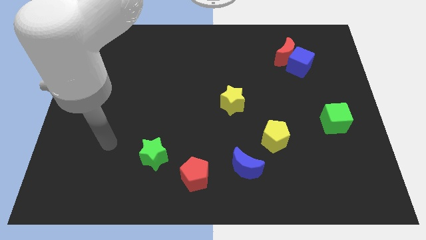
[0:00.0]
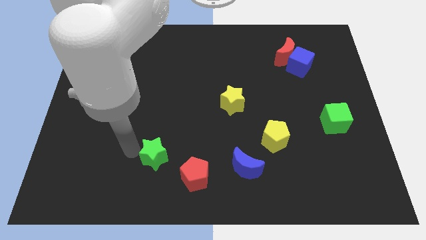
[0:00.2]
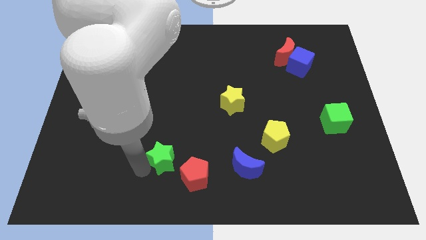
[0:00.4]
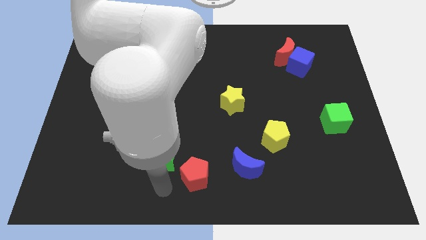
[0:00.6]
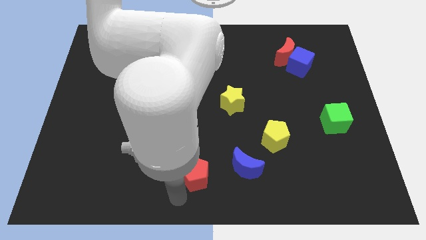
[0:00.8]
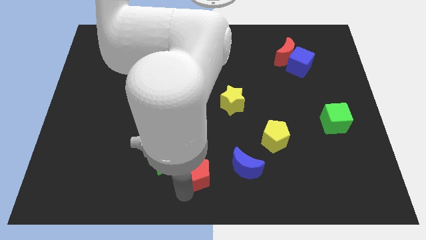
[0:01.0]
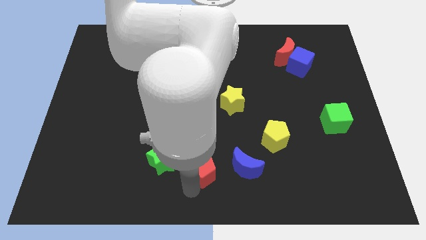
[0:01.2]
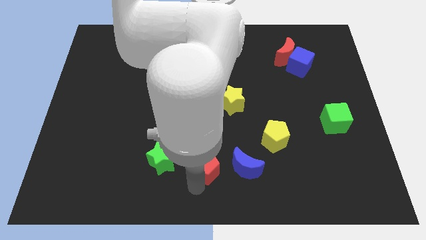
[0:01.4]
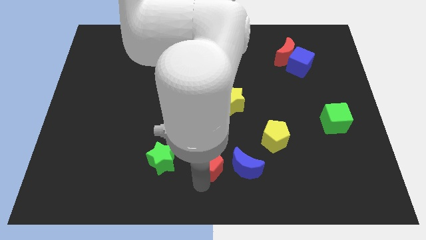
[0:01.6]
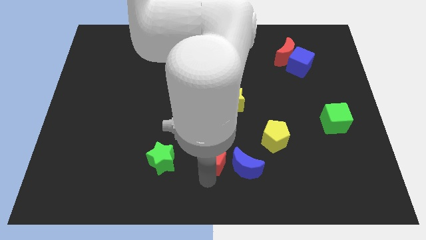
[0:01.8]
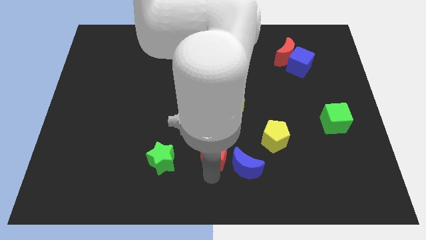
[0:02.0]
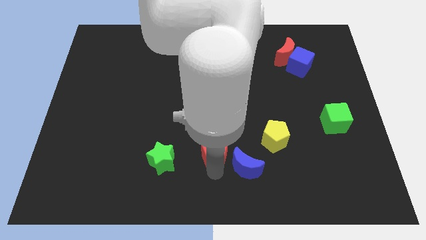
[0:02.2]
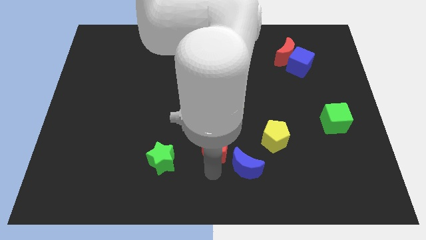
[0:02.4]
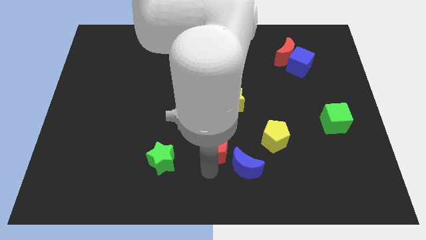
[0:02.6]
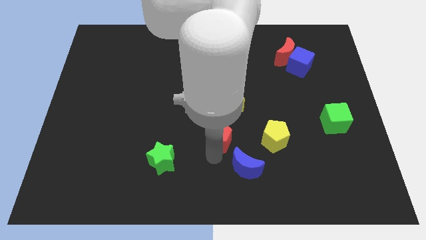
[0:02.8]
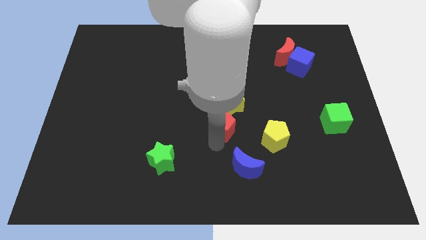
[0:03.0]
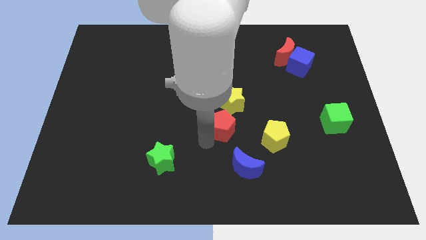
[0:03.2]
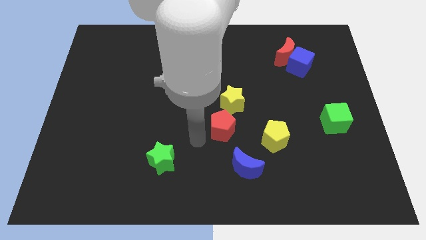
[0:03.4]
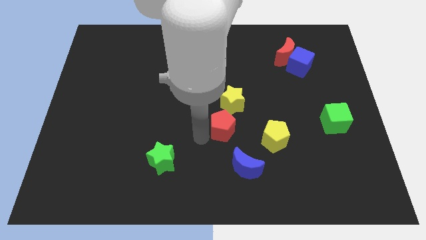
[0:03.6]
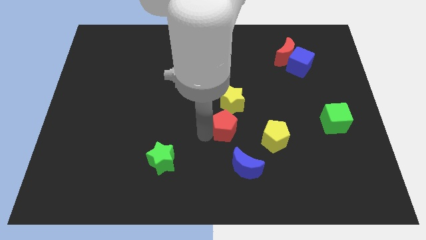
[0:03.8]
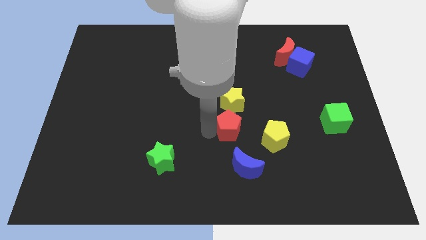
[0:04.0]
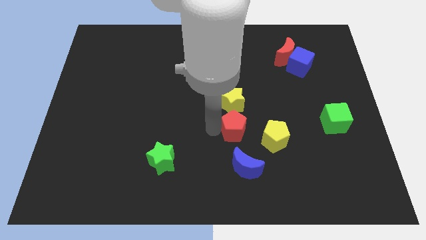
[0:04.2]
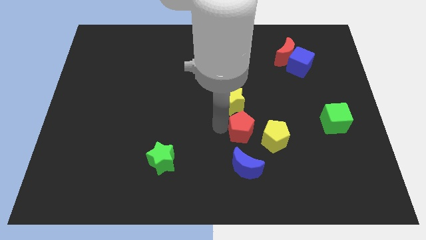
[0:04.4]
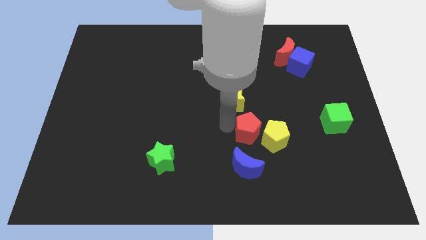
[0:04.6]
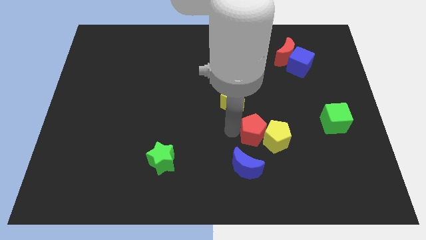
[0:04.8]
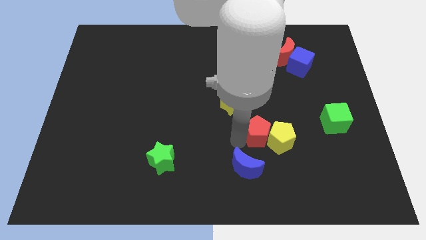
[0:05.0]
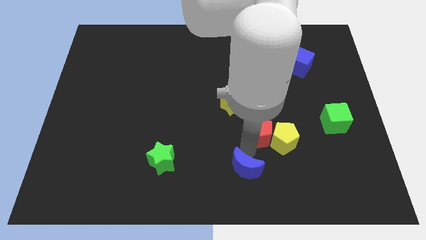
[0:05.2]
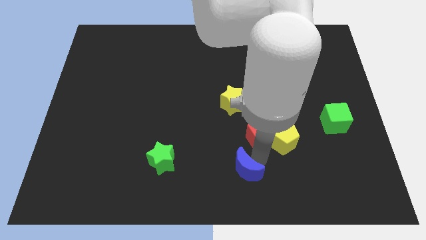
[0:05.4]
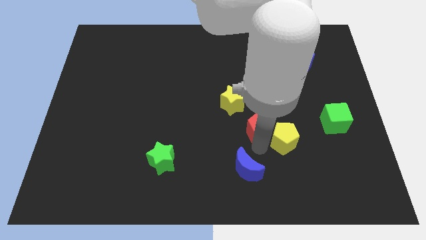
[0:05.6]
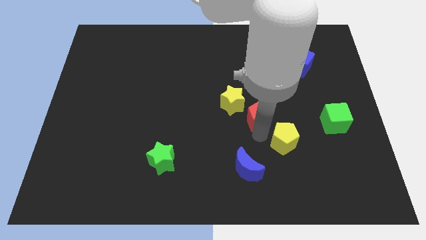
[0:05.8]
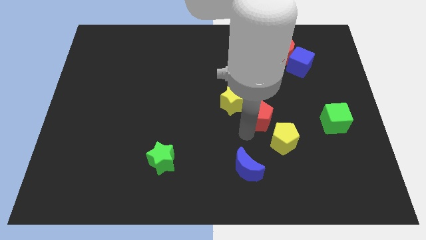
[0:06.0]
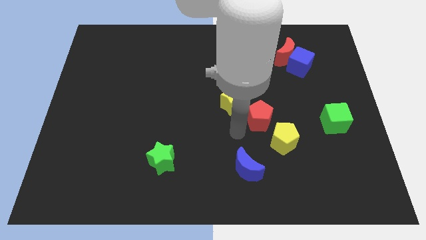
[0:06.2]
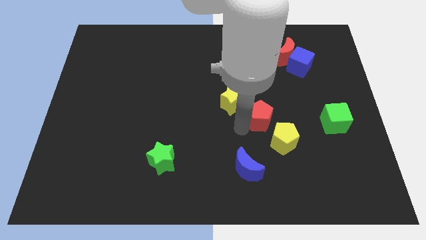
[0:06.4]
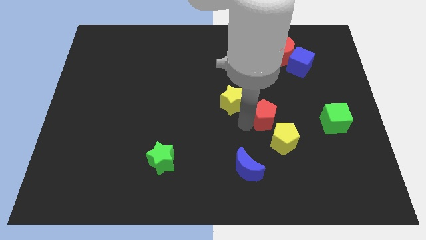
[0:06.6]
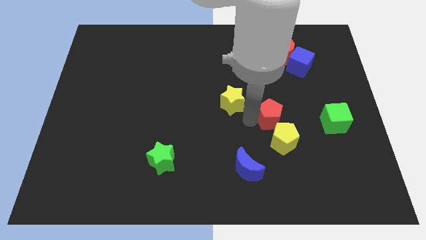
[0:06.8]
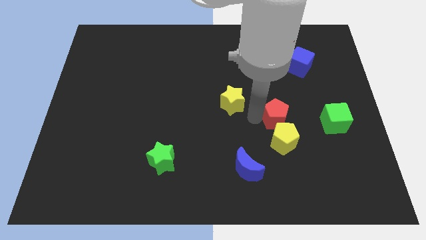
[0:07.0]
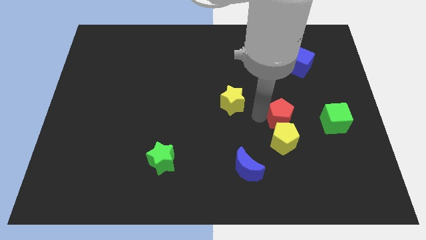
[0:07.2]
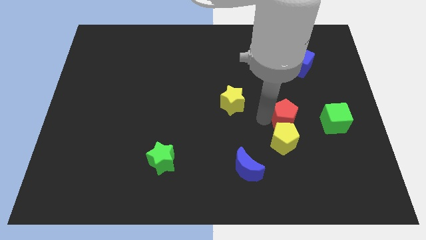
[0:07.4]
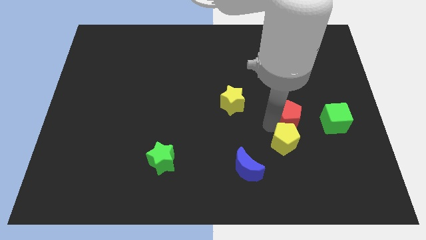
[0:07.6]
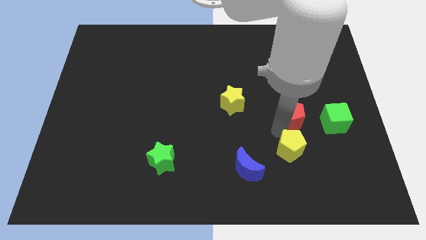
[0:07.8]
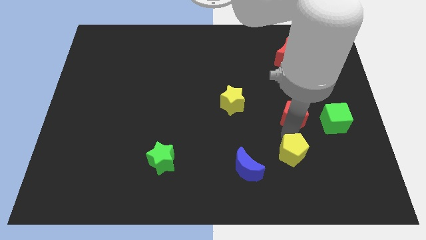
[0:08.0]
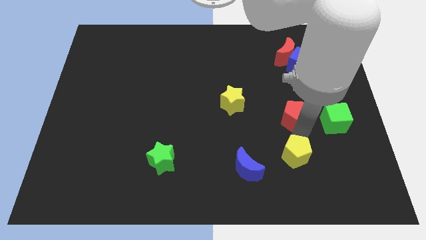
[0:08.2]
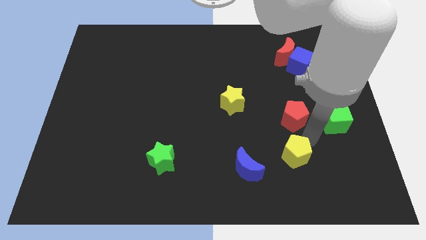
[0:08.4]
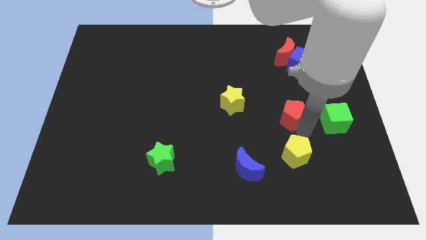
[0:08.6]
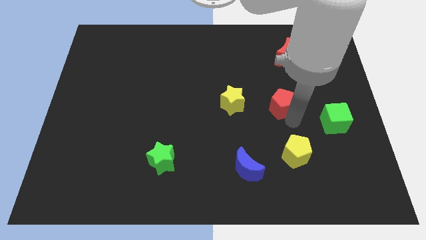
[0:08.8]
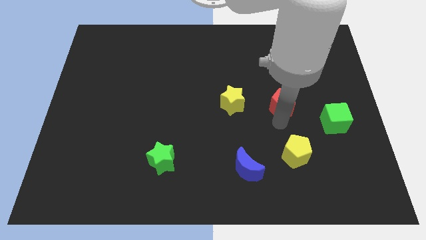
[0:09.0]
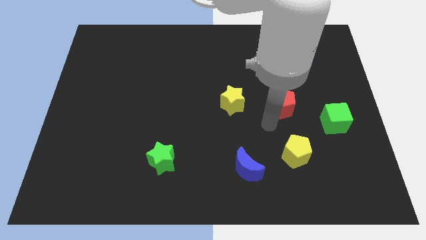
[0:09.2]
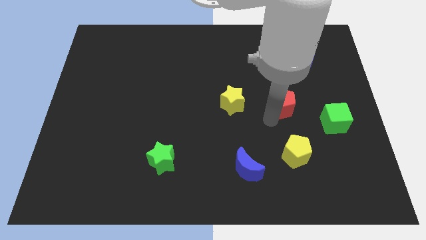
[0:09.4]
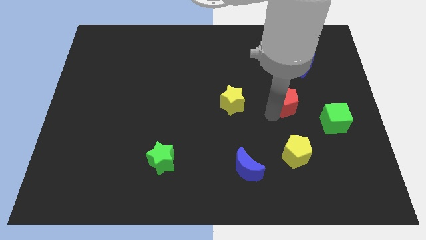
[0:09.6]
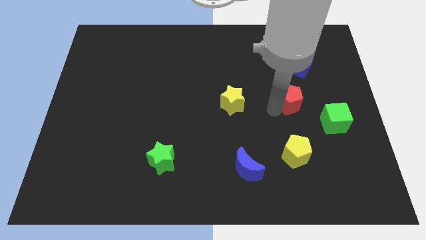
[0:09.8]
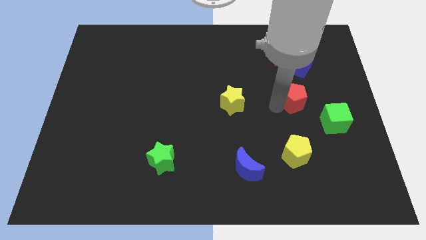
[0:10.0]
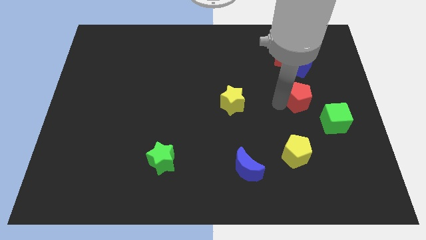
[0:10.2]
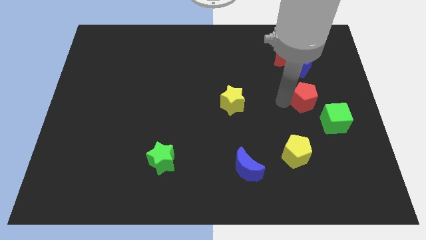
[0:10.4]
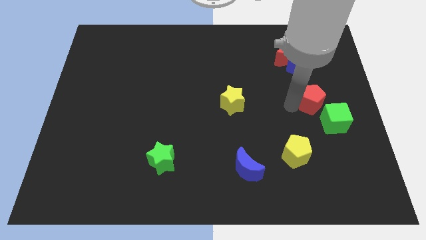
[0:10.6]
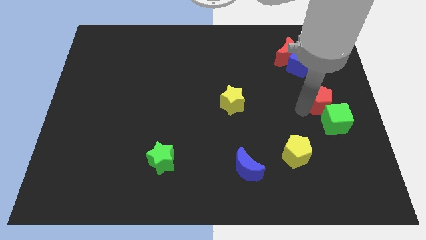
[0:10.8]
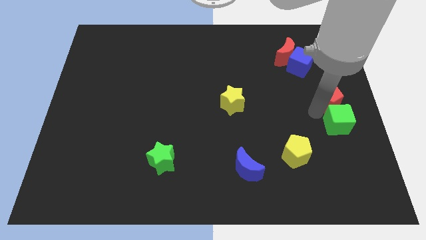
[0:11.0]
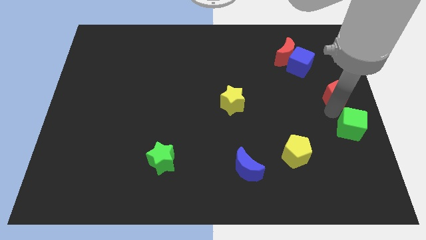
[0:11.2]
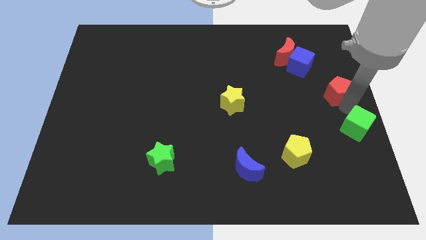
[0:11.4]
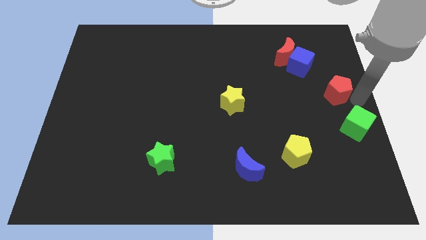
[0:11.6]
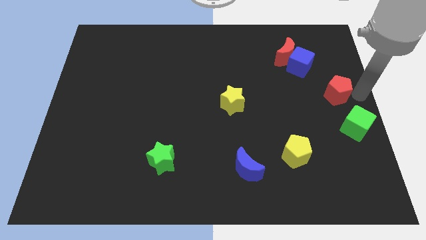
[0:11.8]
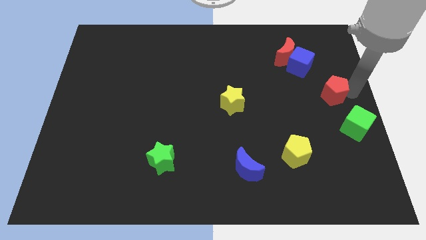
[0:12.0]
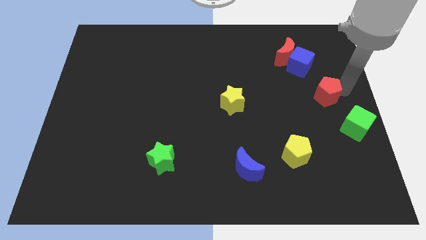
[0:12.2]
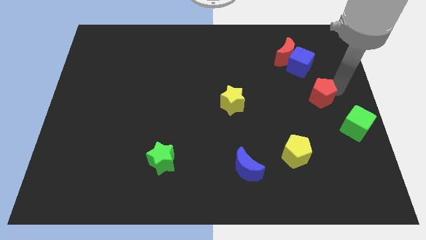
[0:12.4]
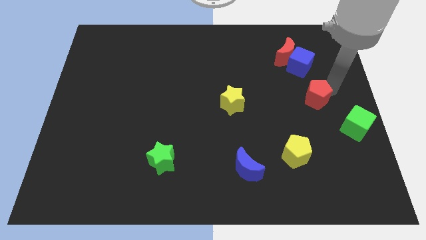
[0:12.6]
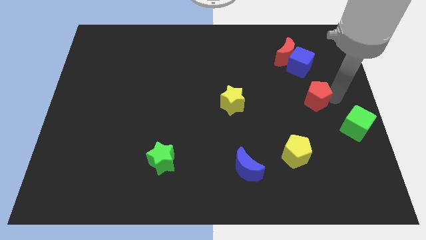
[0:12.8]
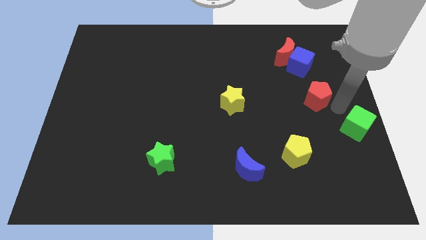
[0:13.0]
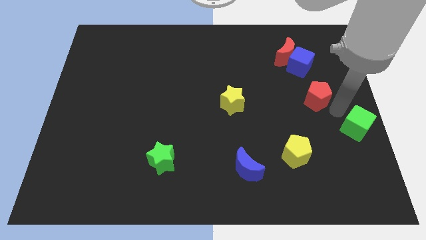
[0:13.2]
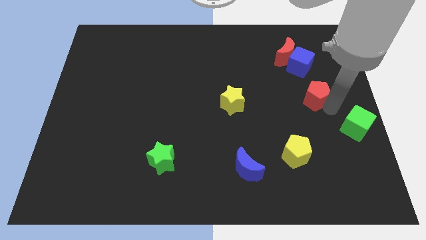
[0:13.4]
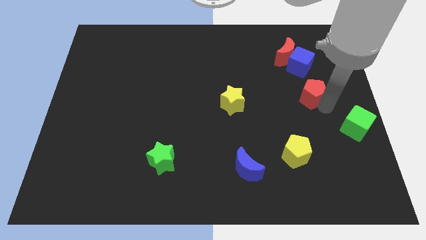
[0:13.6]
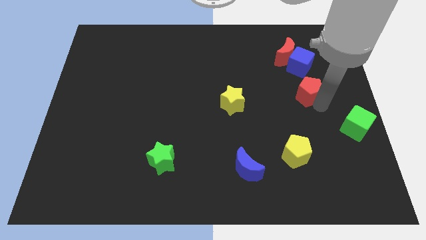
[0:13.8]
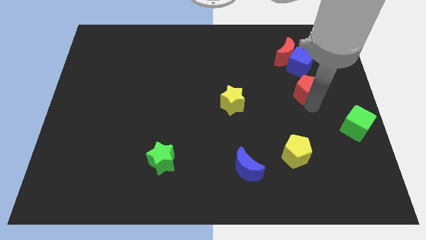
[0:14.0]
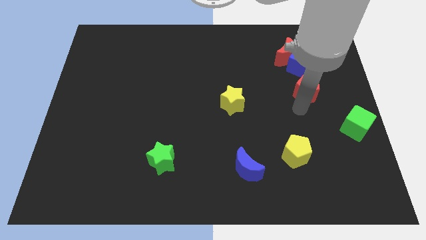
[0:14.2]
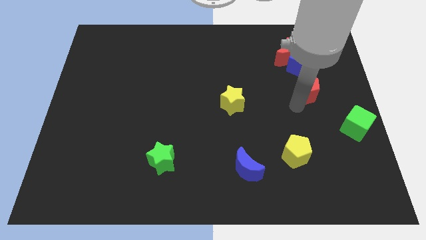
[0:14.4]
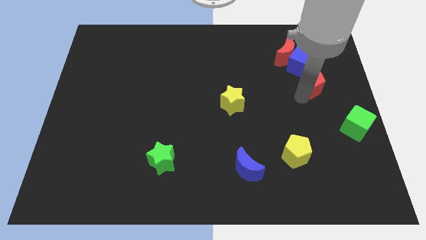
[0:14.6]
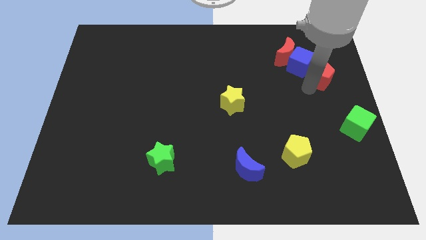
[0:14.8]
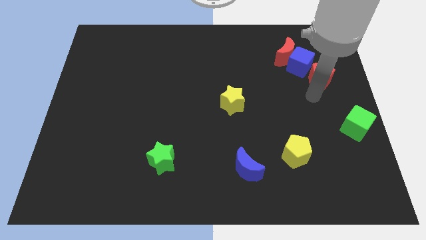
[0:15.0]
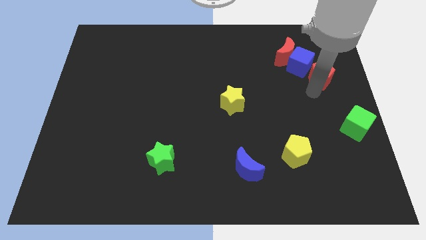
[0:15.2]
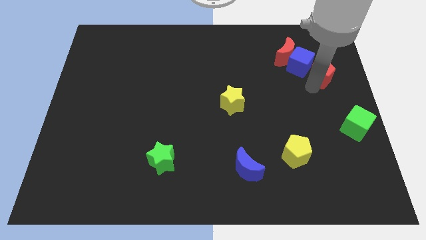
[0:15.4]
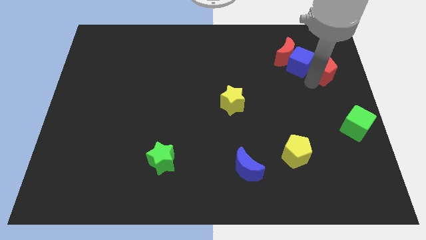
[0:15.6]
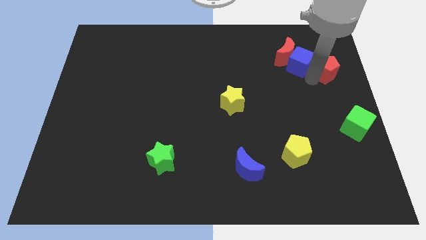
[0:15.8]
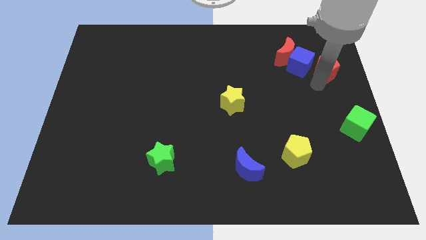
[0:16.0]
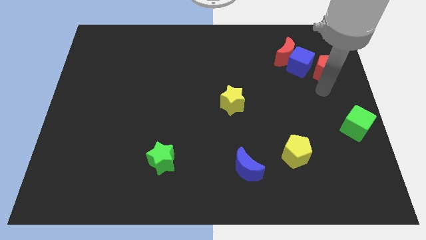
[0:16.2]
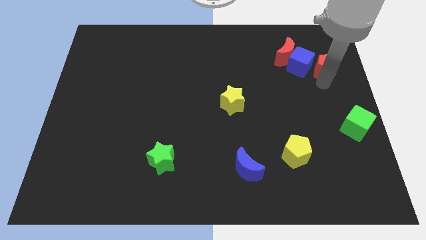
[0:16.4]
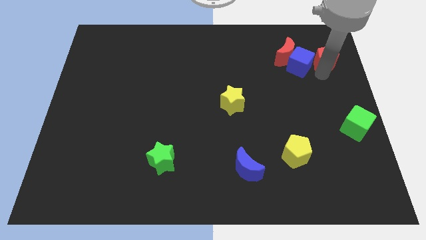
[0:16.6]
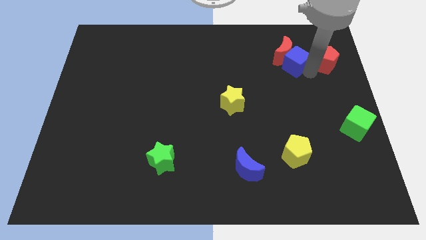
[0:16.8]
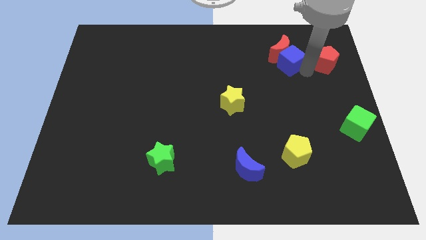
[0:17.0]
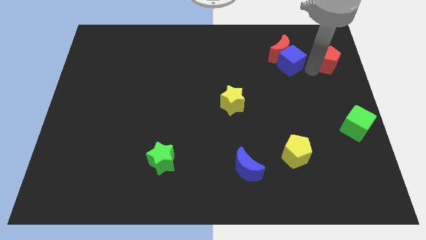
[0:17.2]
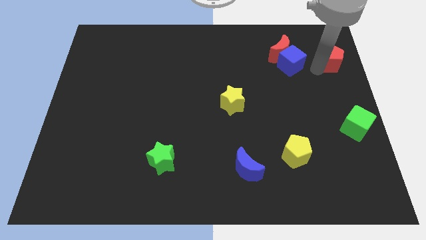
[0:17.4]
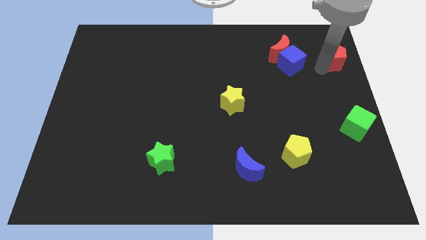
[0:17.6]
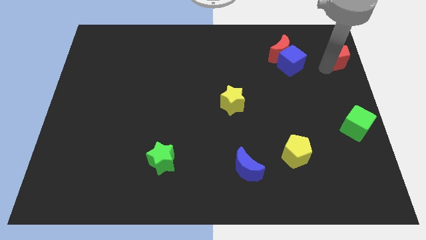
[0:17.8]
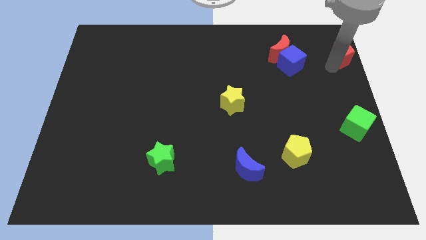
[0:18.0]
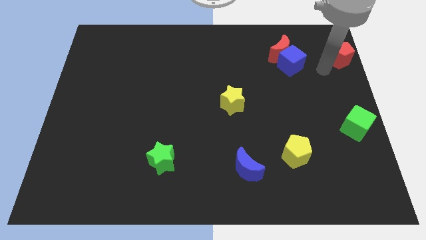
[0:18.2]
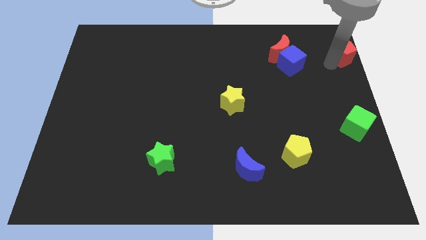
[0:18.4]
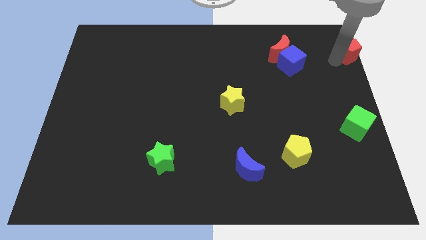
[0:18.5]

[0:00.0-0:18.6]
put the red pentagon to the top right of the board
